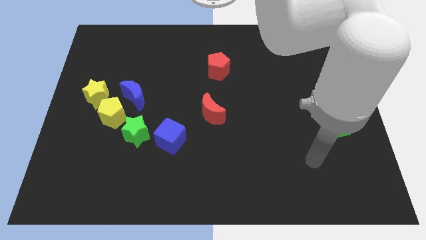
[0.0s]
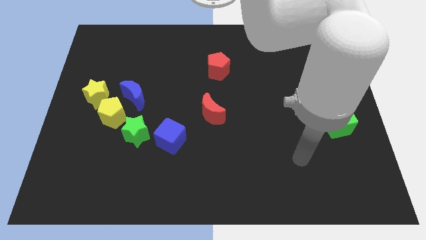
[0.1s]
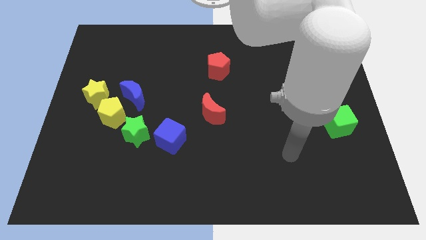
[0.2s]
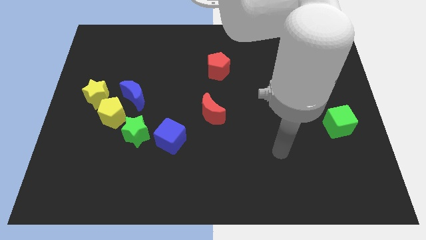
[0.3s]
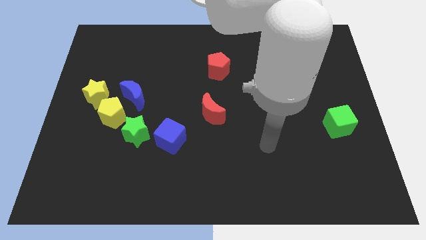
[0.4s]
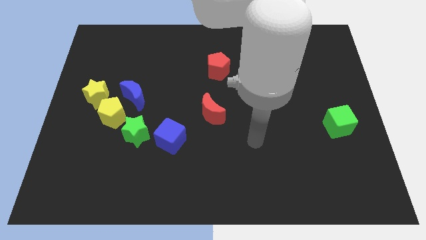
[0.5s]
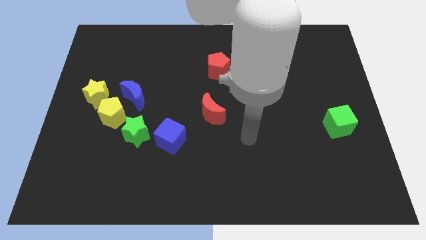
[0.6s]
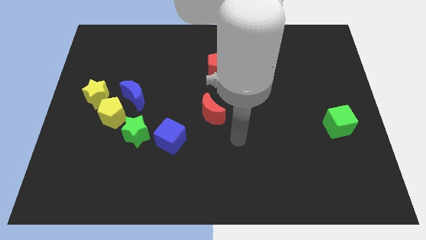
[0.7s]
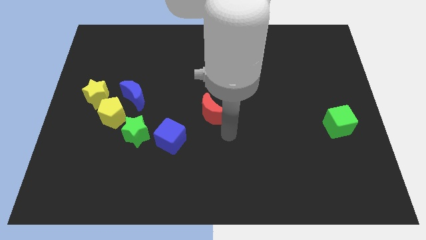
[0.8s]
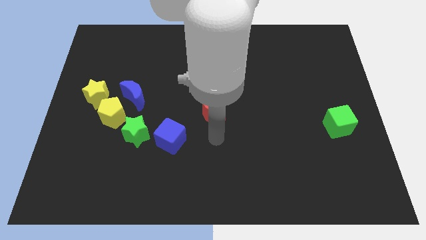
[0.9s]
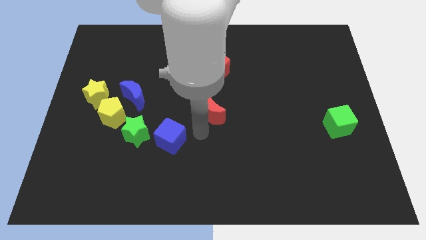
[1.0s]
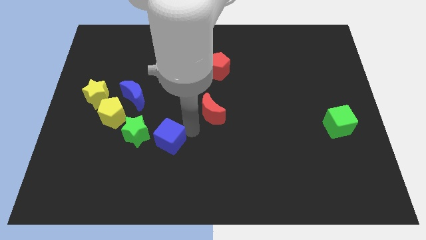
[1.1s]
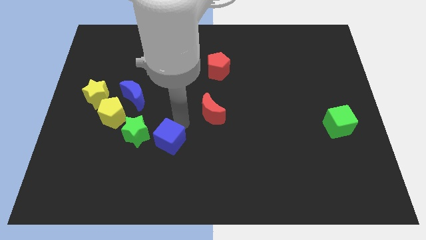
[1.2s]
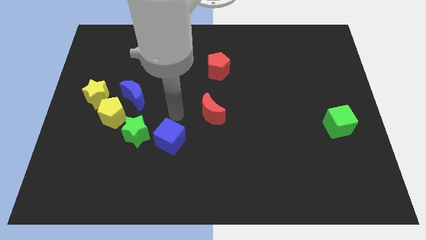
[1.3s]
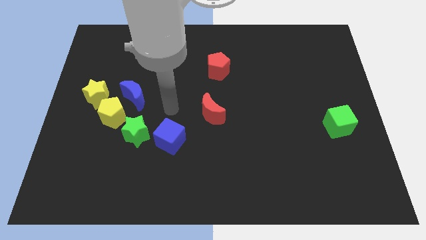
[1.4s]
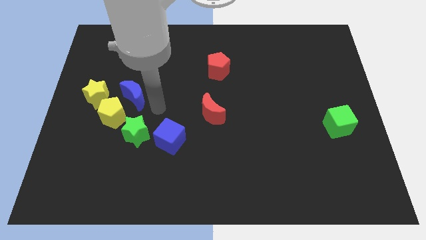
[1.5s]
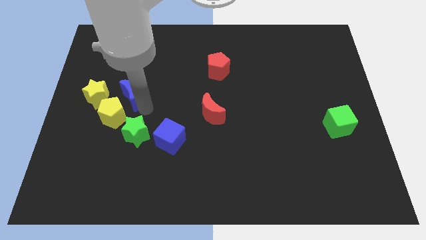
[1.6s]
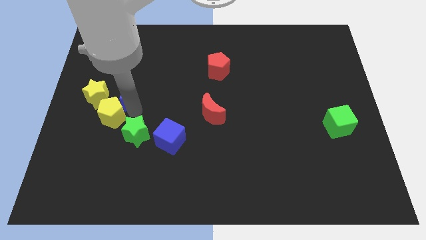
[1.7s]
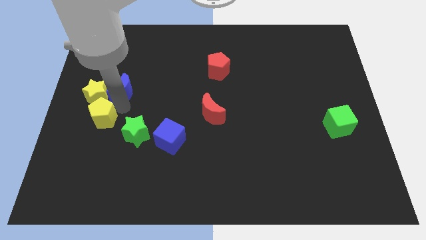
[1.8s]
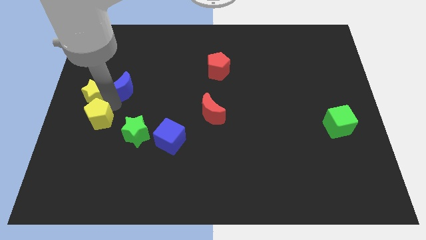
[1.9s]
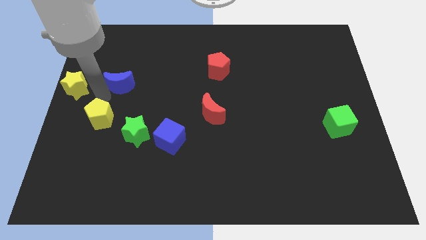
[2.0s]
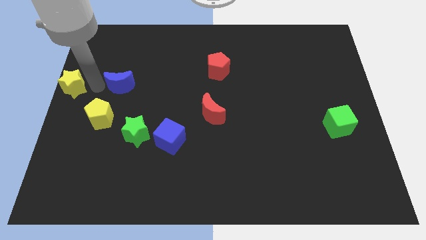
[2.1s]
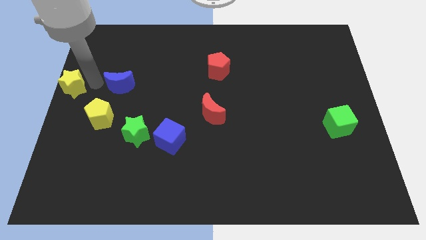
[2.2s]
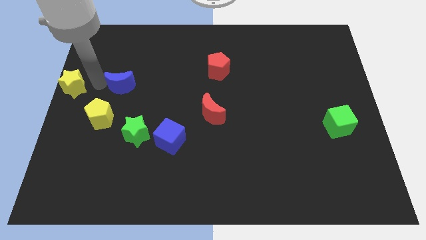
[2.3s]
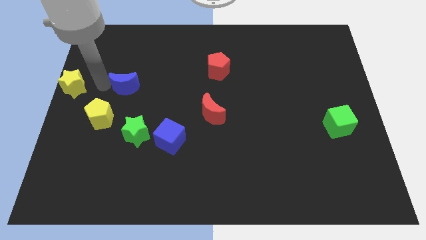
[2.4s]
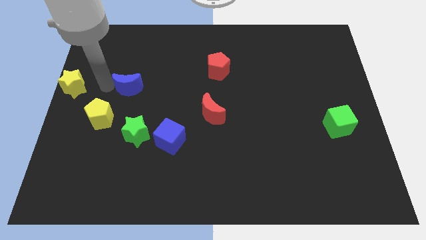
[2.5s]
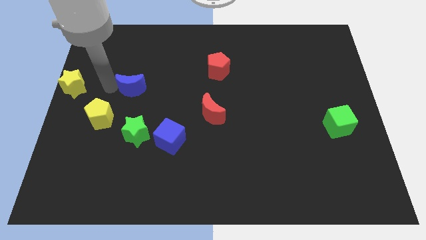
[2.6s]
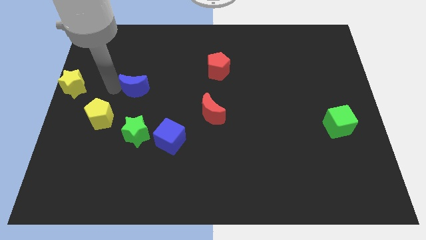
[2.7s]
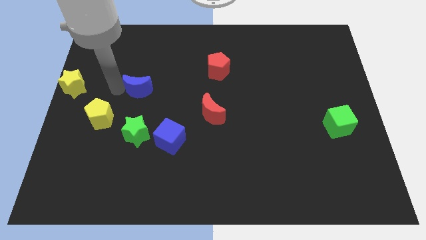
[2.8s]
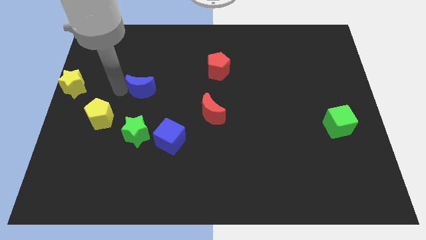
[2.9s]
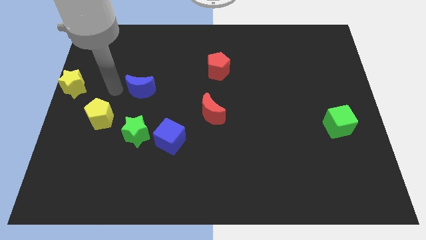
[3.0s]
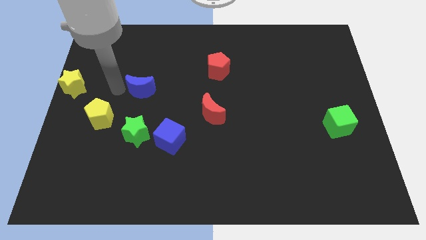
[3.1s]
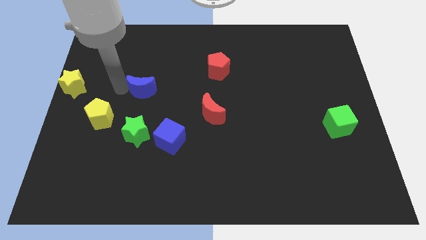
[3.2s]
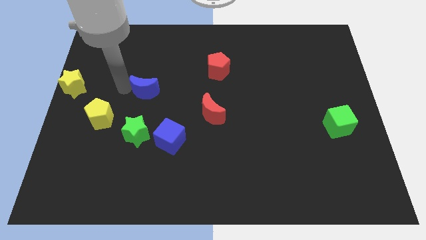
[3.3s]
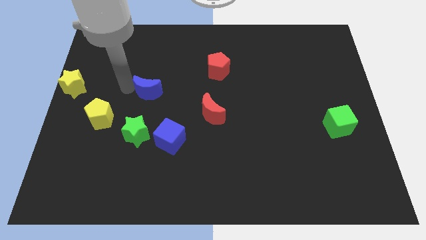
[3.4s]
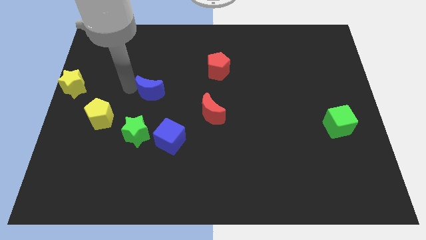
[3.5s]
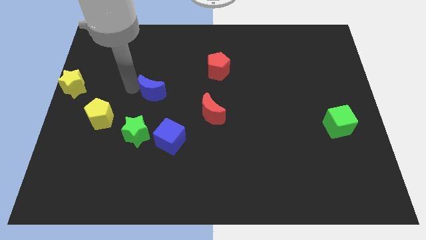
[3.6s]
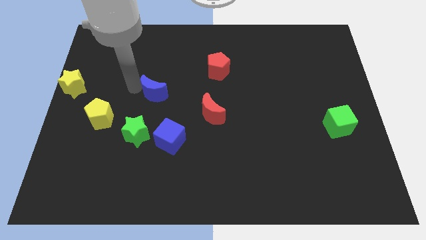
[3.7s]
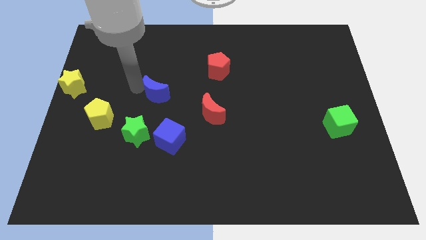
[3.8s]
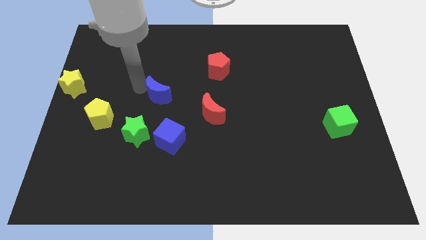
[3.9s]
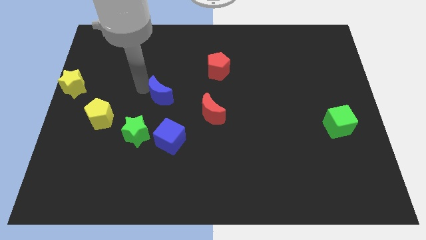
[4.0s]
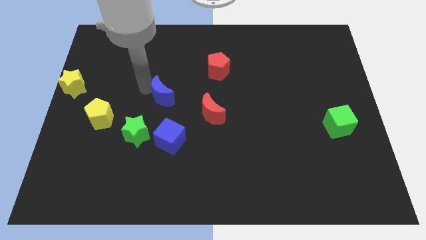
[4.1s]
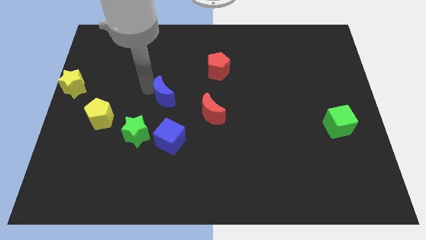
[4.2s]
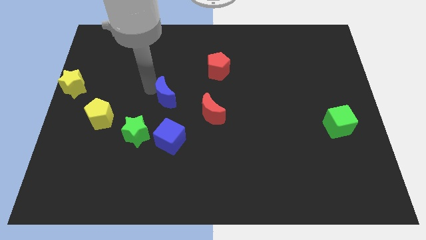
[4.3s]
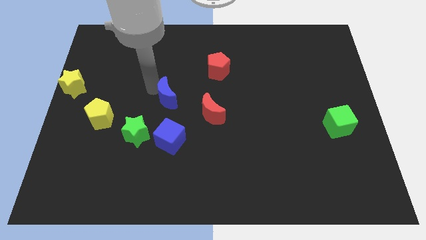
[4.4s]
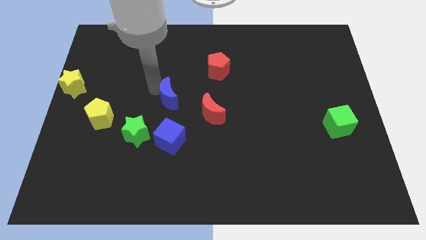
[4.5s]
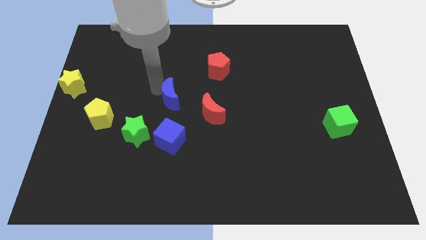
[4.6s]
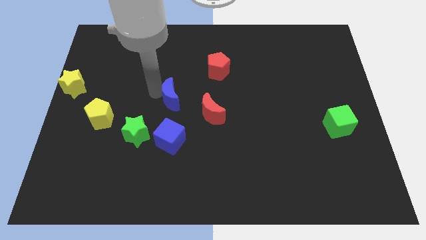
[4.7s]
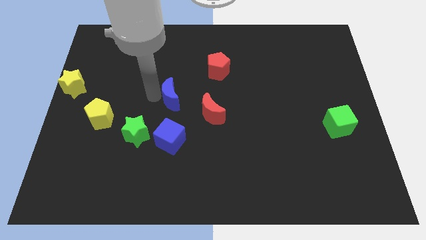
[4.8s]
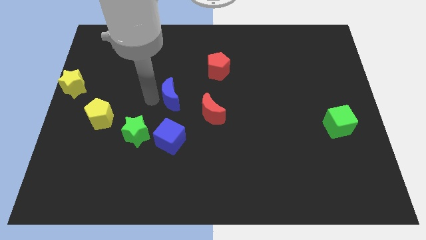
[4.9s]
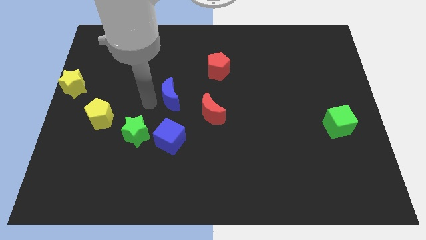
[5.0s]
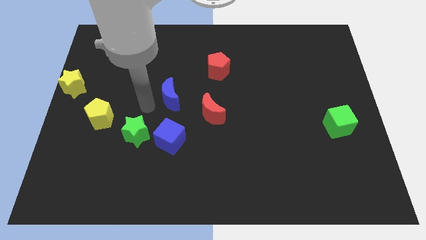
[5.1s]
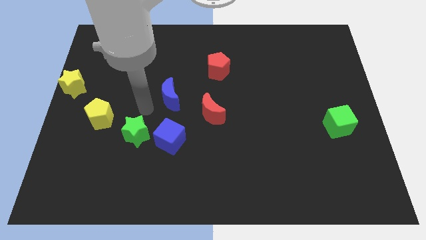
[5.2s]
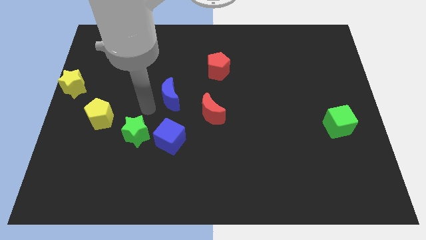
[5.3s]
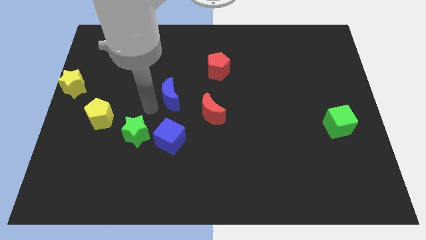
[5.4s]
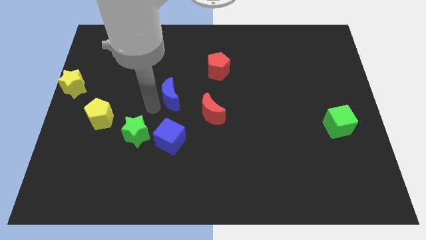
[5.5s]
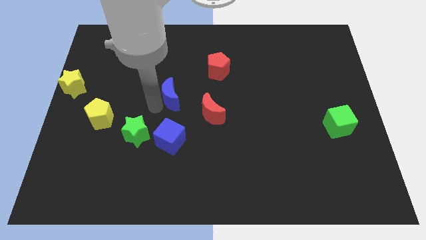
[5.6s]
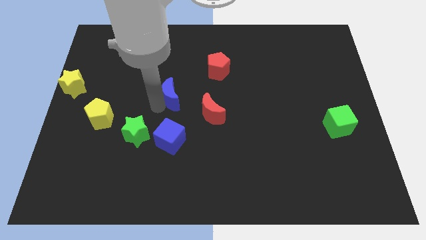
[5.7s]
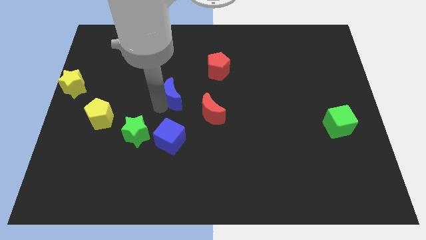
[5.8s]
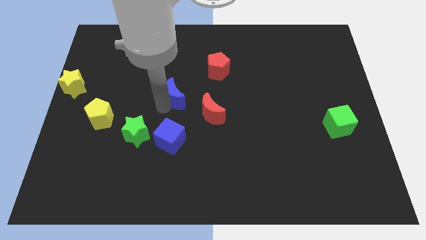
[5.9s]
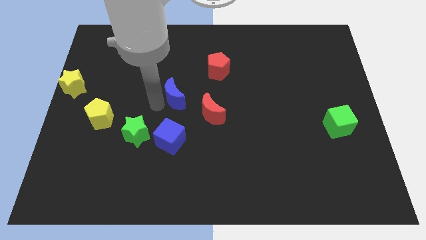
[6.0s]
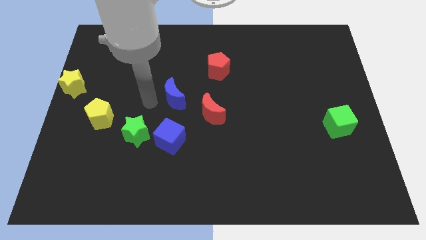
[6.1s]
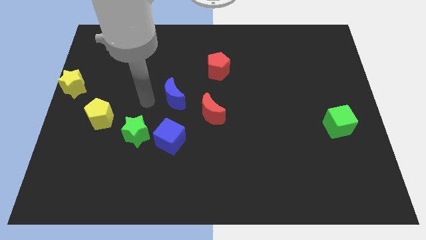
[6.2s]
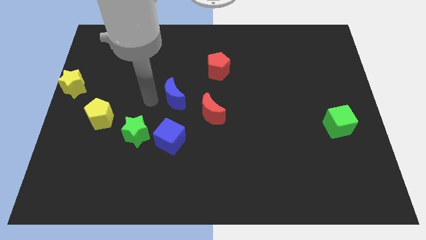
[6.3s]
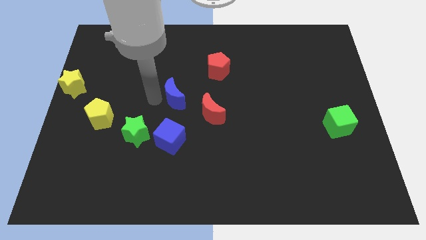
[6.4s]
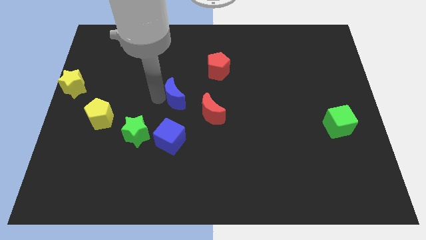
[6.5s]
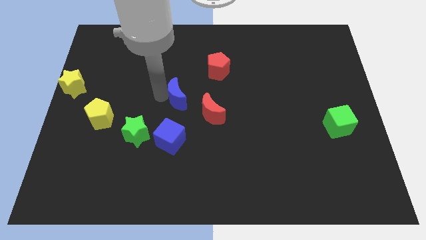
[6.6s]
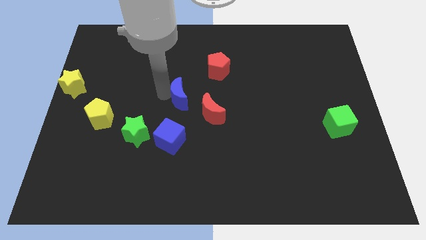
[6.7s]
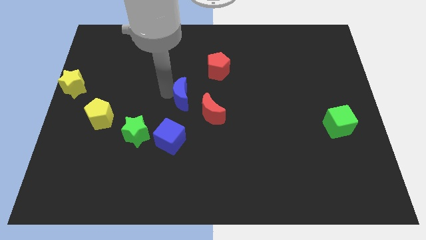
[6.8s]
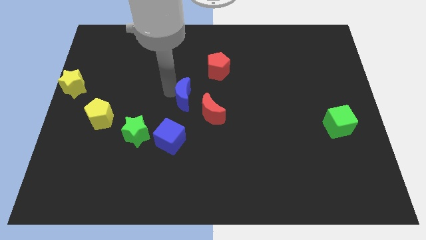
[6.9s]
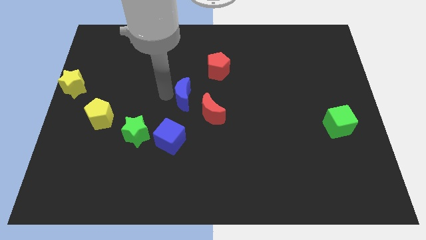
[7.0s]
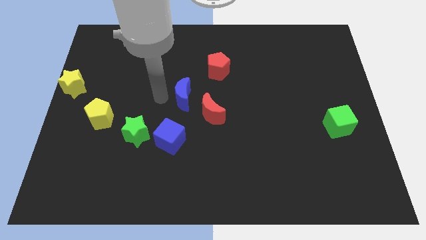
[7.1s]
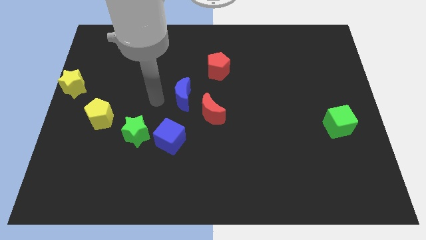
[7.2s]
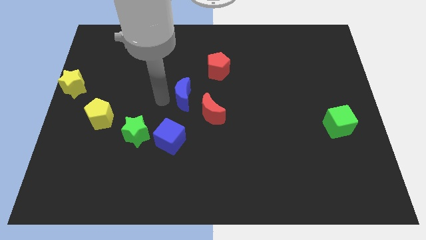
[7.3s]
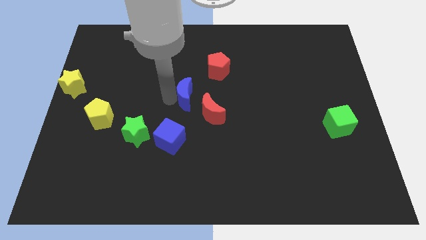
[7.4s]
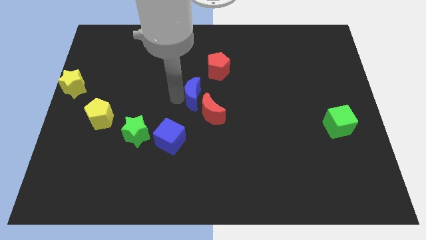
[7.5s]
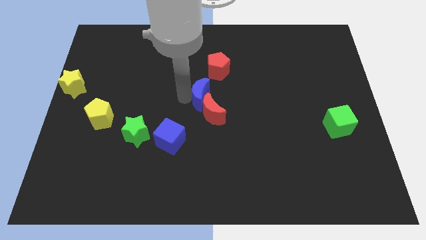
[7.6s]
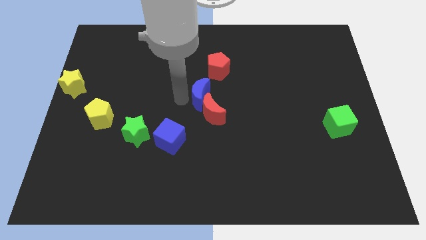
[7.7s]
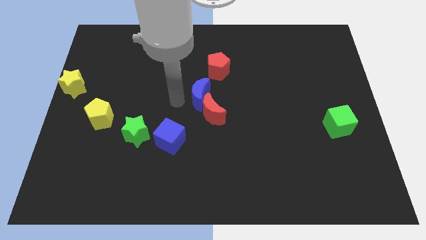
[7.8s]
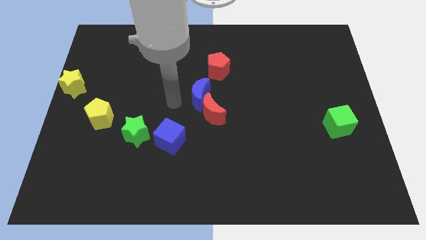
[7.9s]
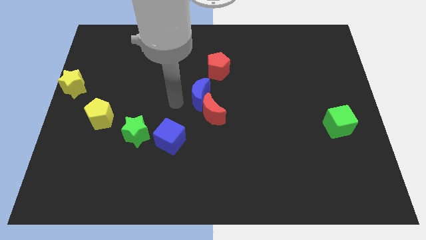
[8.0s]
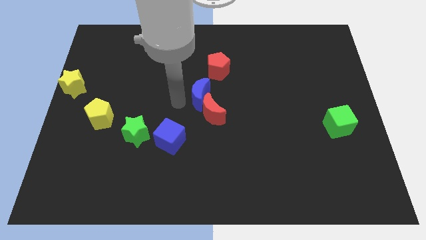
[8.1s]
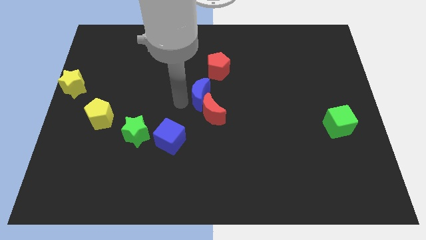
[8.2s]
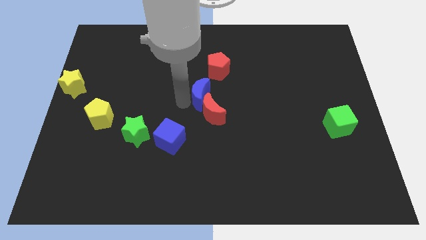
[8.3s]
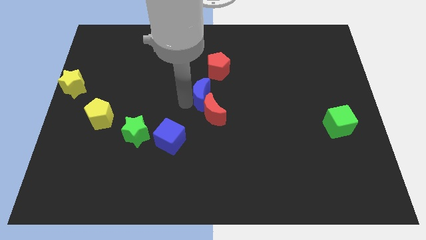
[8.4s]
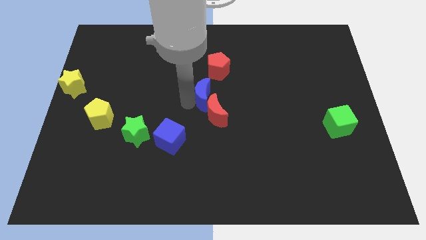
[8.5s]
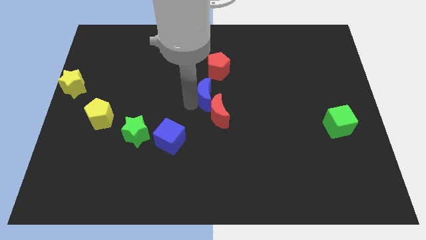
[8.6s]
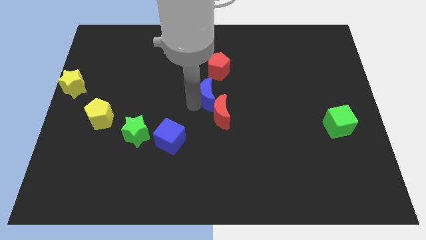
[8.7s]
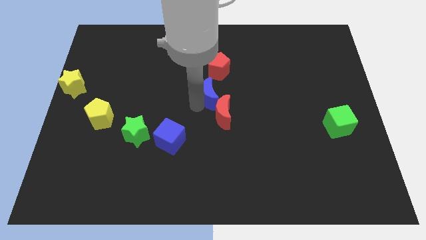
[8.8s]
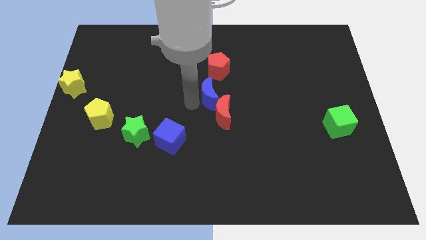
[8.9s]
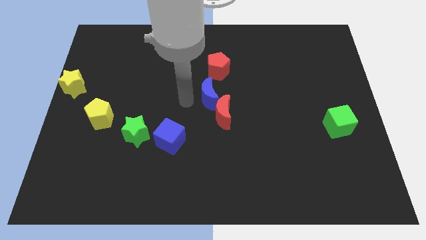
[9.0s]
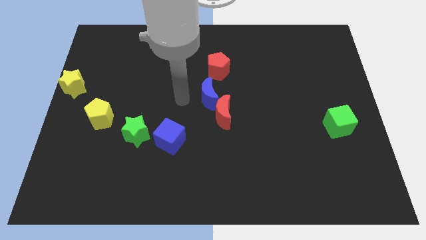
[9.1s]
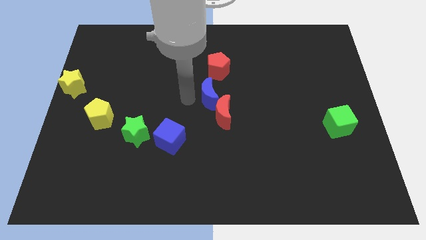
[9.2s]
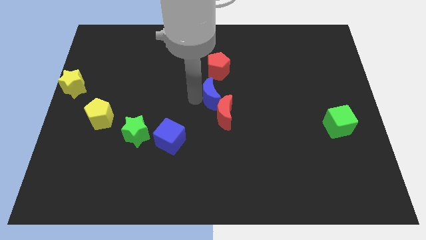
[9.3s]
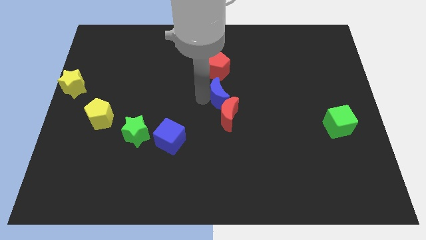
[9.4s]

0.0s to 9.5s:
slide the blue moon right
